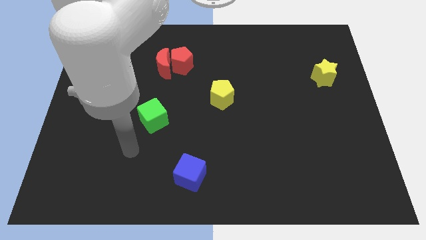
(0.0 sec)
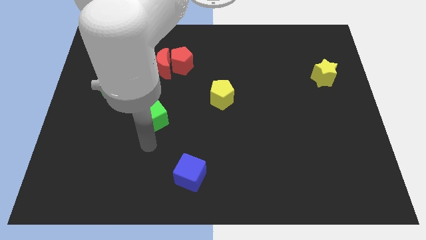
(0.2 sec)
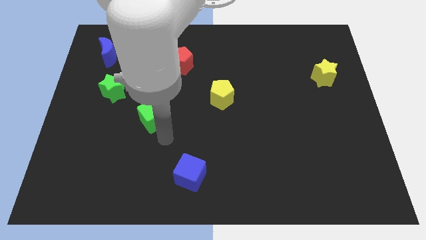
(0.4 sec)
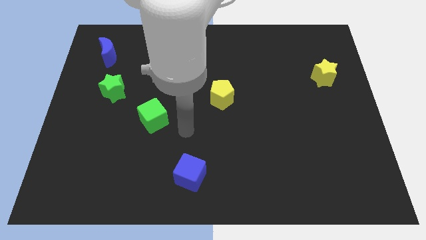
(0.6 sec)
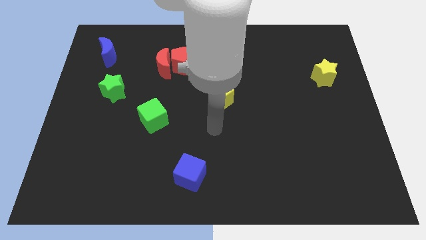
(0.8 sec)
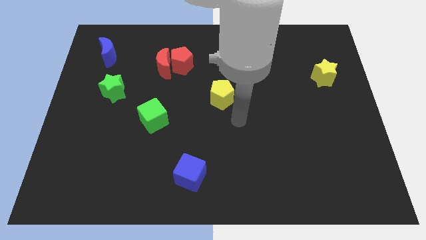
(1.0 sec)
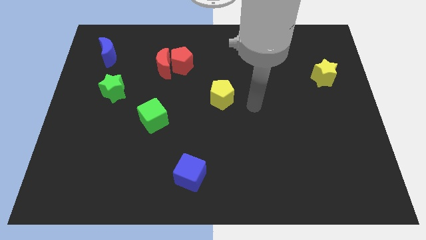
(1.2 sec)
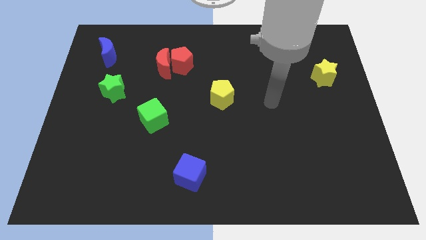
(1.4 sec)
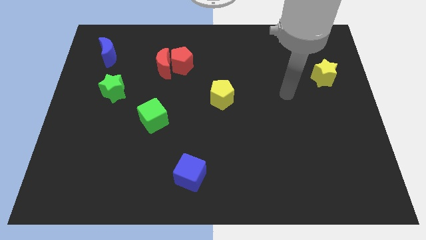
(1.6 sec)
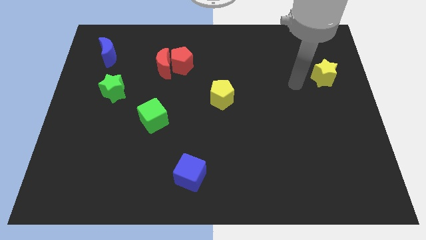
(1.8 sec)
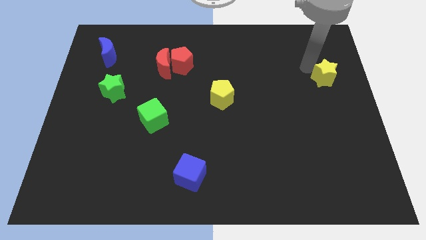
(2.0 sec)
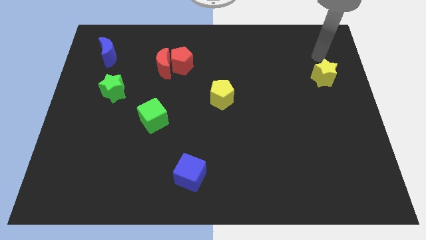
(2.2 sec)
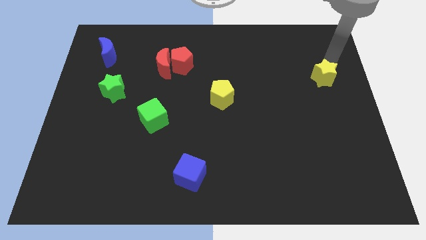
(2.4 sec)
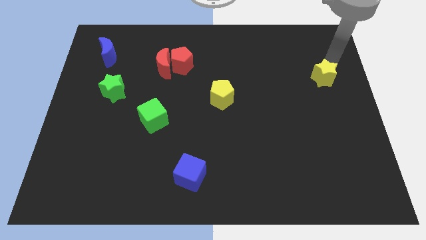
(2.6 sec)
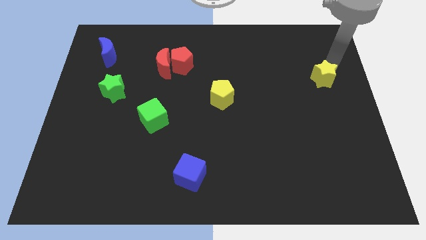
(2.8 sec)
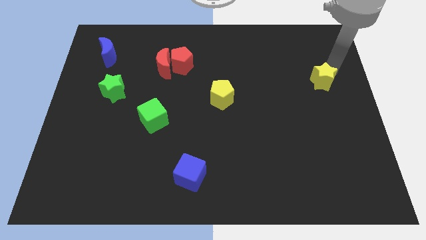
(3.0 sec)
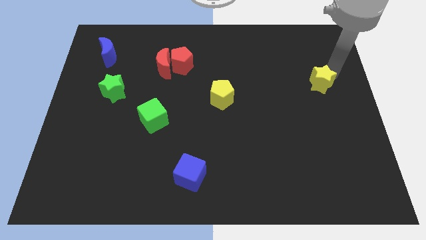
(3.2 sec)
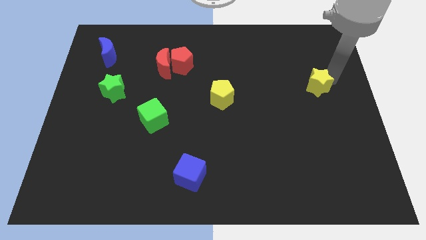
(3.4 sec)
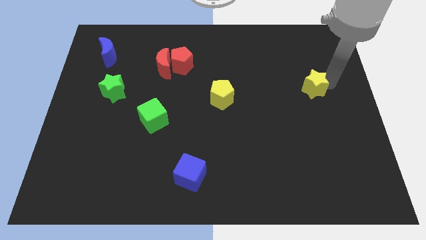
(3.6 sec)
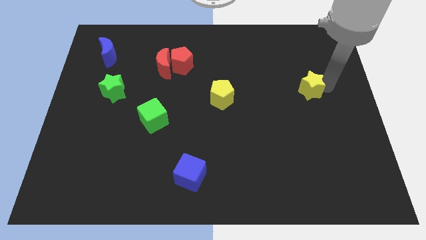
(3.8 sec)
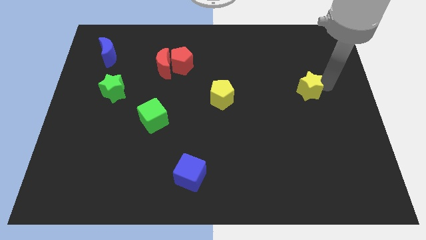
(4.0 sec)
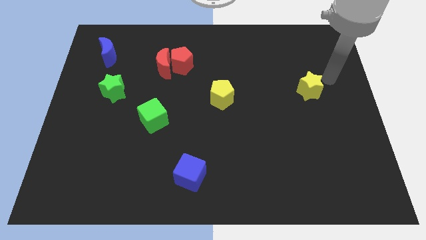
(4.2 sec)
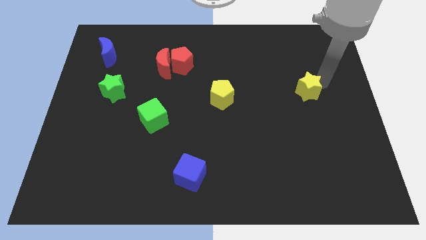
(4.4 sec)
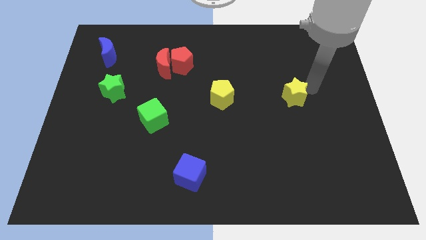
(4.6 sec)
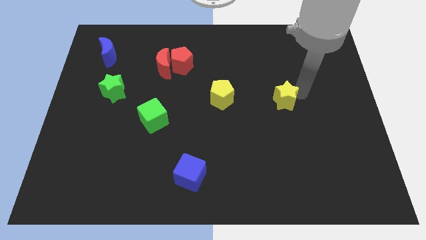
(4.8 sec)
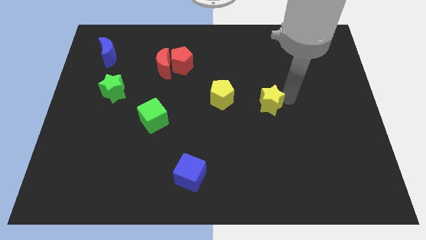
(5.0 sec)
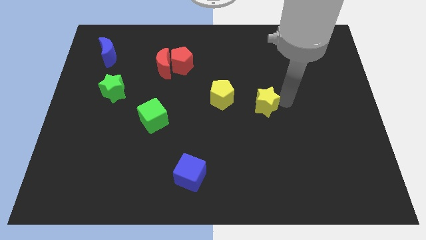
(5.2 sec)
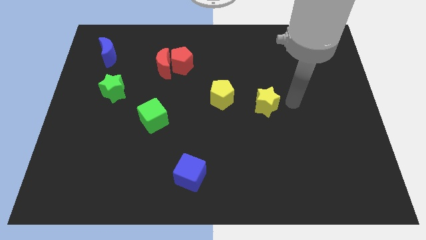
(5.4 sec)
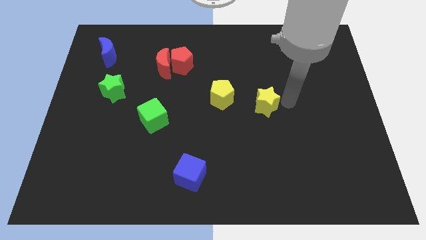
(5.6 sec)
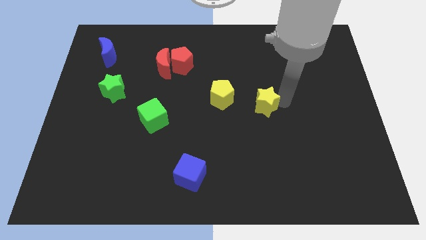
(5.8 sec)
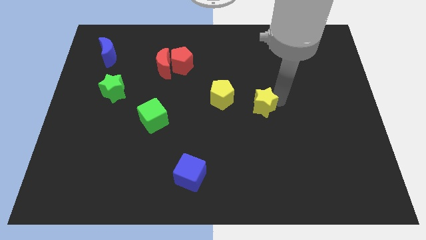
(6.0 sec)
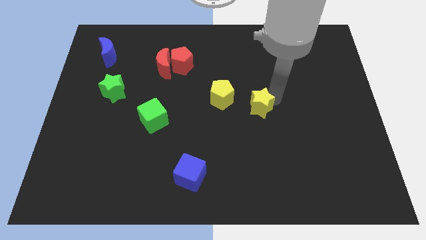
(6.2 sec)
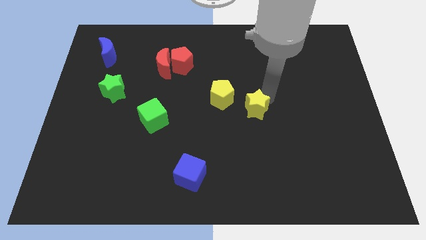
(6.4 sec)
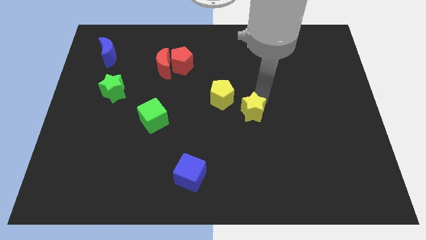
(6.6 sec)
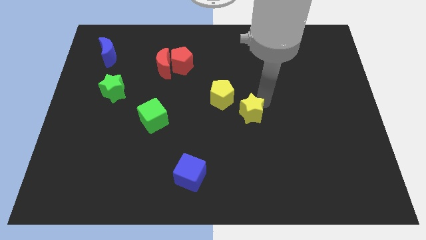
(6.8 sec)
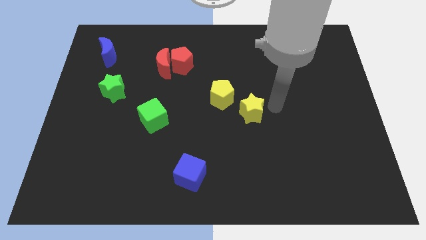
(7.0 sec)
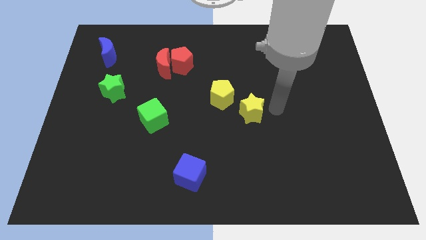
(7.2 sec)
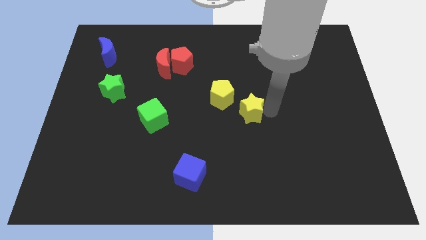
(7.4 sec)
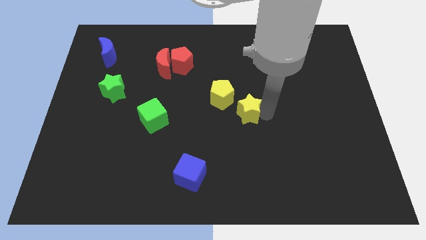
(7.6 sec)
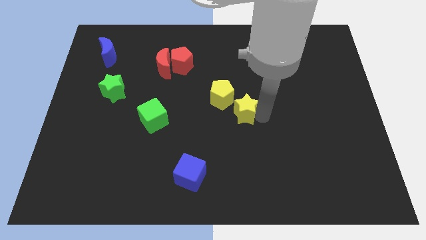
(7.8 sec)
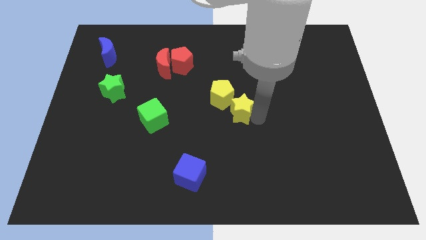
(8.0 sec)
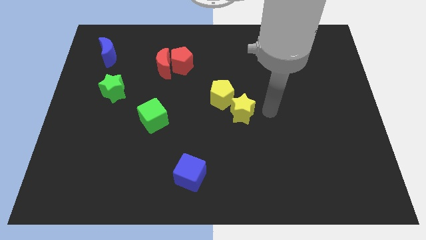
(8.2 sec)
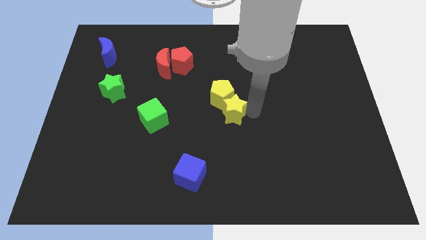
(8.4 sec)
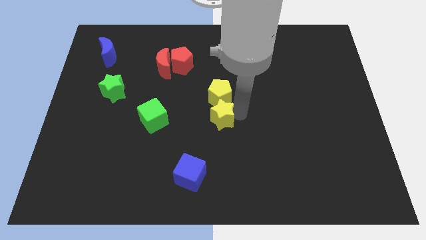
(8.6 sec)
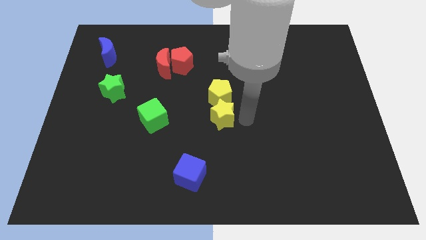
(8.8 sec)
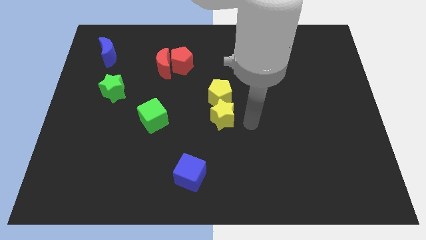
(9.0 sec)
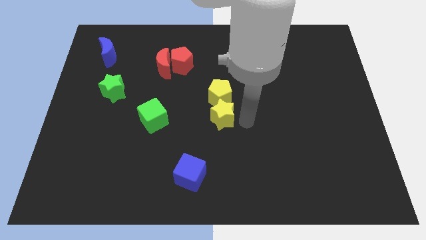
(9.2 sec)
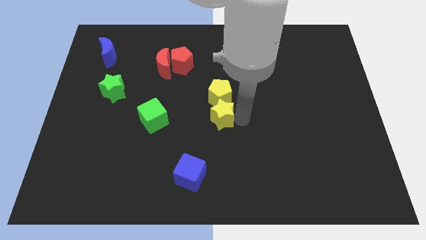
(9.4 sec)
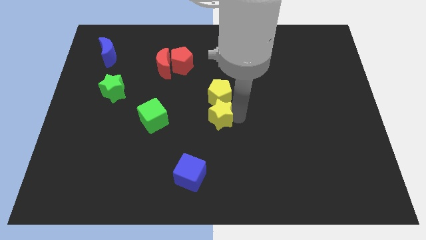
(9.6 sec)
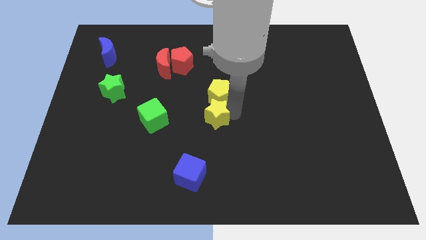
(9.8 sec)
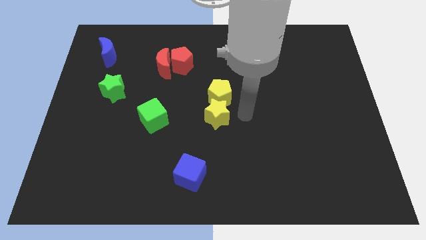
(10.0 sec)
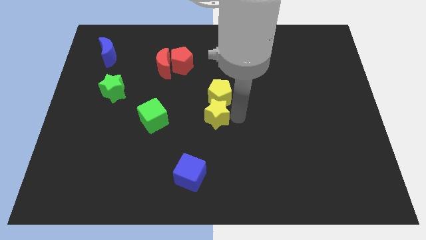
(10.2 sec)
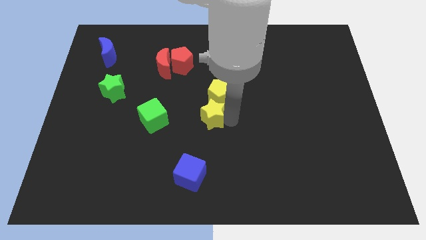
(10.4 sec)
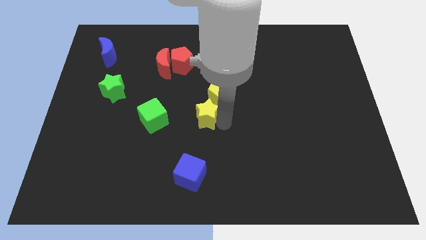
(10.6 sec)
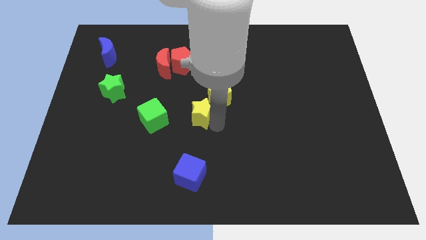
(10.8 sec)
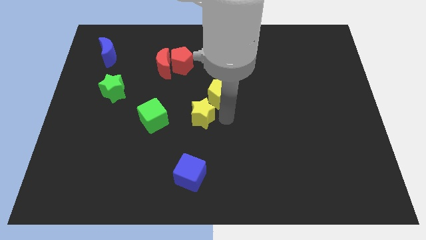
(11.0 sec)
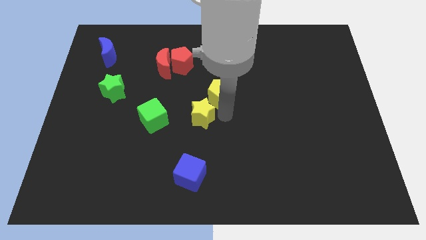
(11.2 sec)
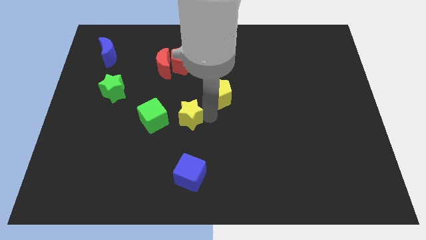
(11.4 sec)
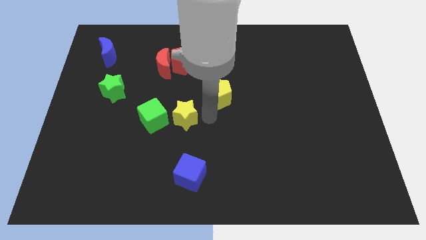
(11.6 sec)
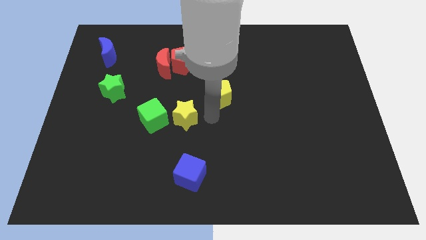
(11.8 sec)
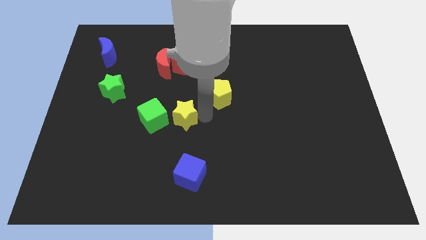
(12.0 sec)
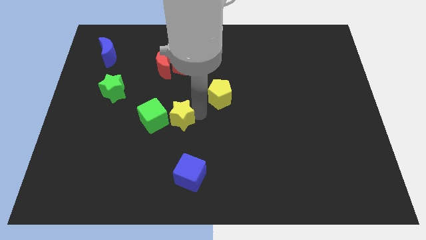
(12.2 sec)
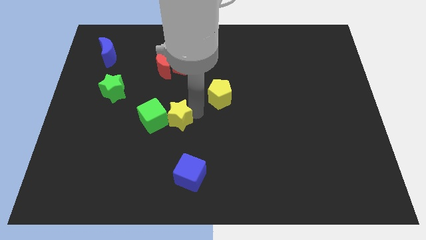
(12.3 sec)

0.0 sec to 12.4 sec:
move the yellow star to the green cube

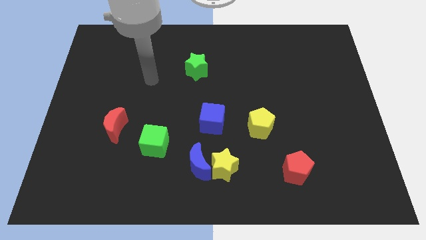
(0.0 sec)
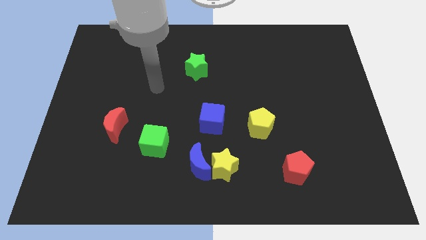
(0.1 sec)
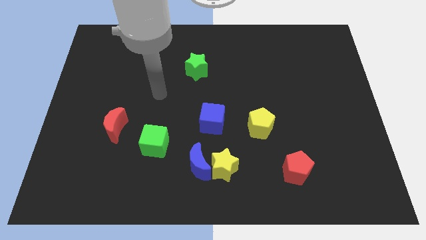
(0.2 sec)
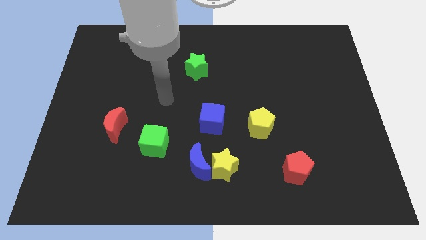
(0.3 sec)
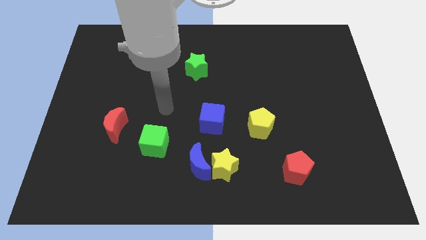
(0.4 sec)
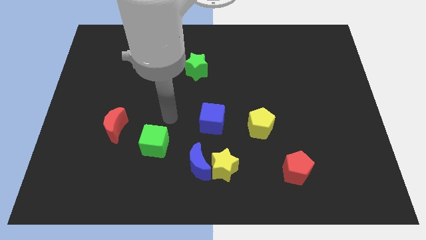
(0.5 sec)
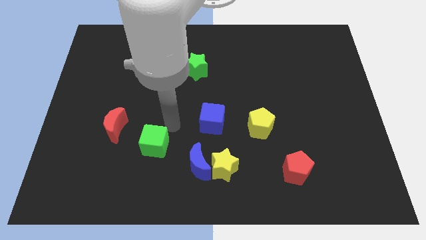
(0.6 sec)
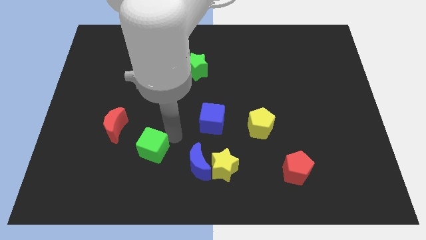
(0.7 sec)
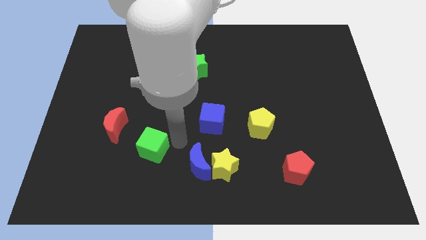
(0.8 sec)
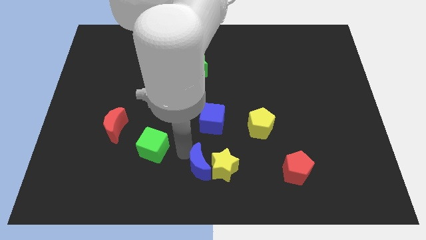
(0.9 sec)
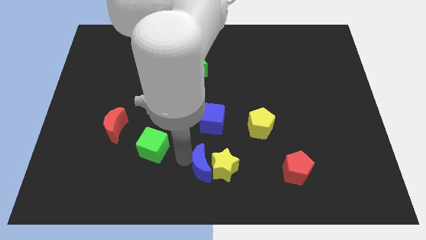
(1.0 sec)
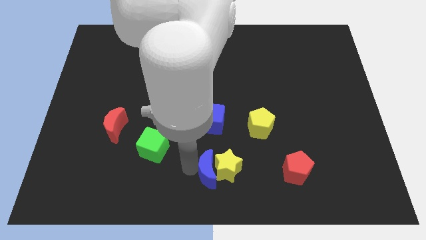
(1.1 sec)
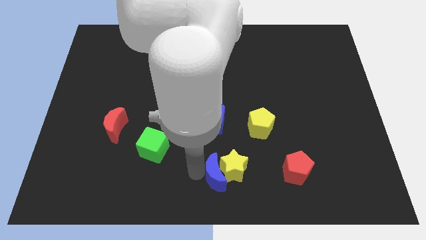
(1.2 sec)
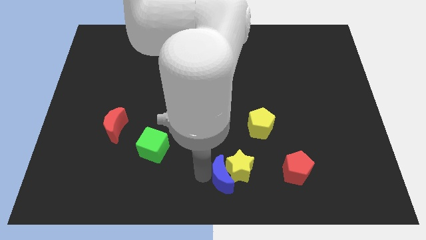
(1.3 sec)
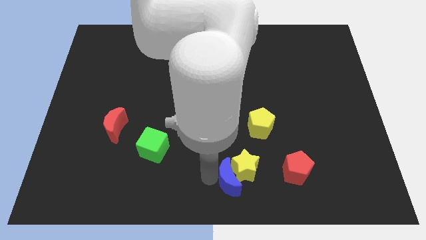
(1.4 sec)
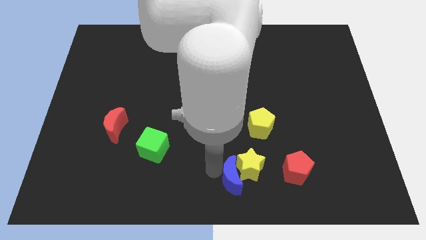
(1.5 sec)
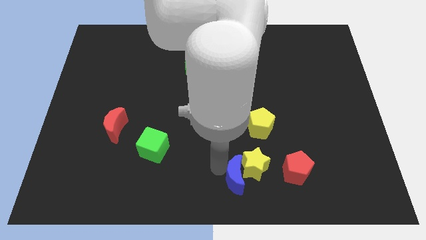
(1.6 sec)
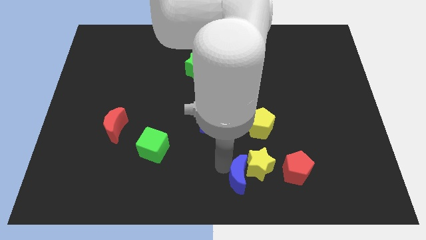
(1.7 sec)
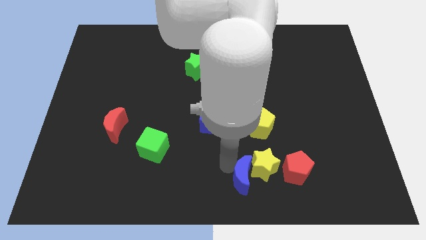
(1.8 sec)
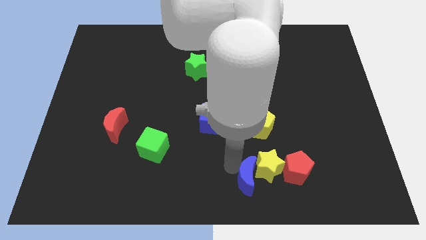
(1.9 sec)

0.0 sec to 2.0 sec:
slide the yellow star towards the red pentagon
